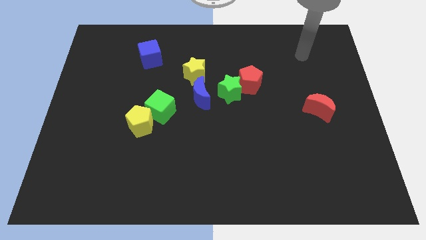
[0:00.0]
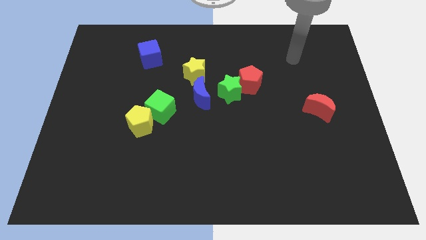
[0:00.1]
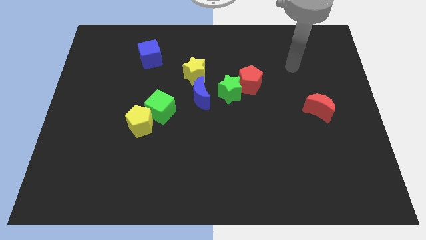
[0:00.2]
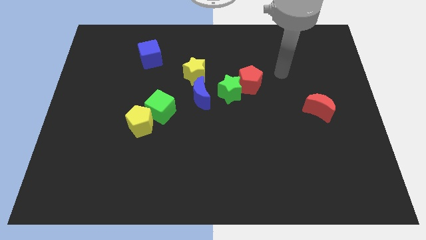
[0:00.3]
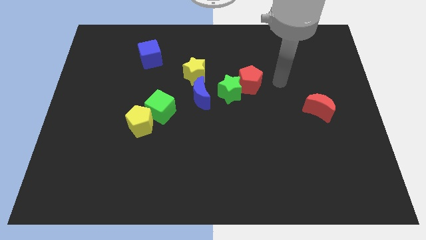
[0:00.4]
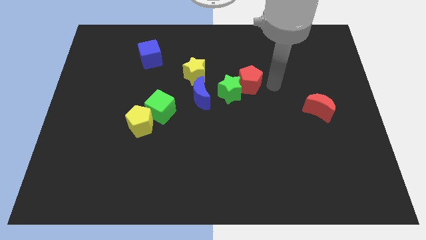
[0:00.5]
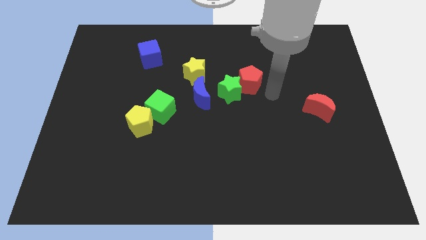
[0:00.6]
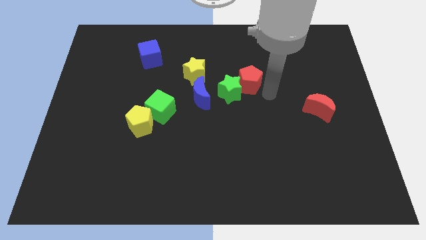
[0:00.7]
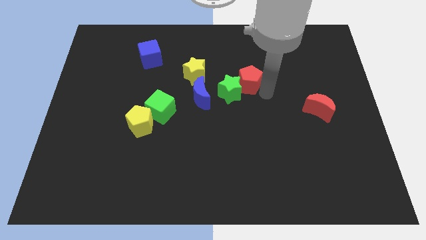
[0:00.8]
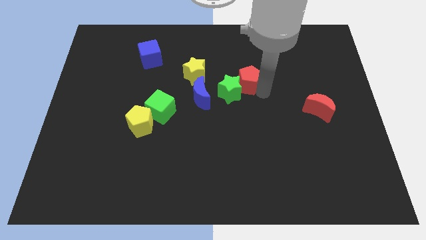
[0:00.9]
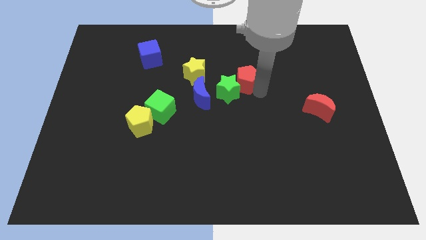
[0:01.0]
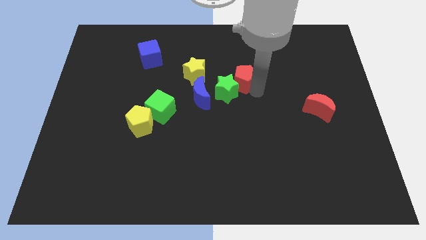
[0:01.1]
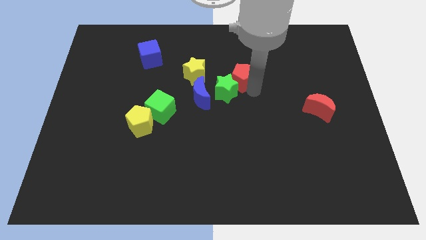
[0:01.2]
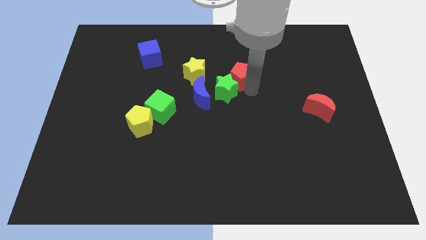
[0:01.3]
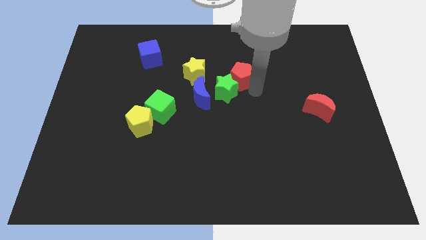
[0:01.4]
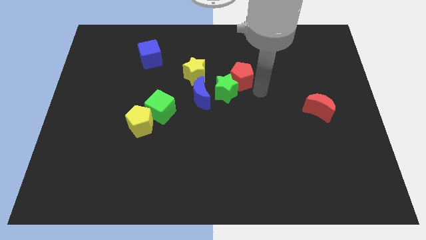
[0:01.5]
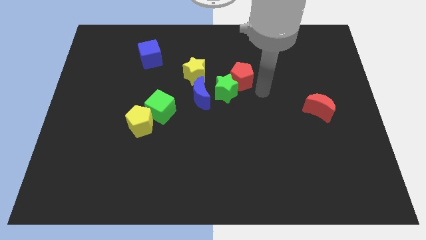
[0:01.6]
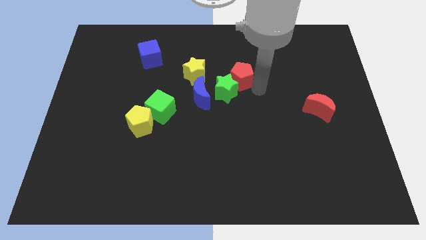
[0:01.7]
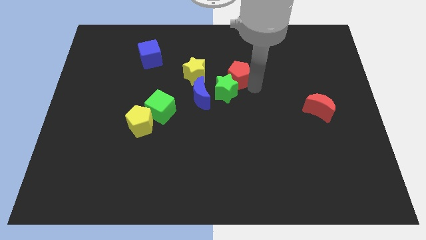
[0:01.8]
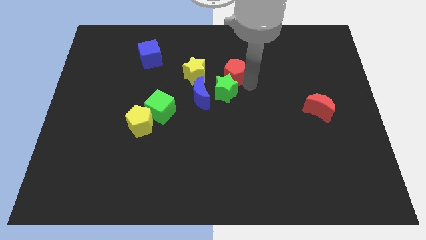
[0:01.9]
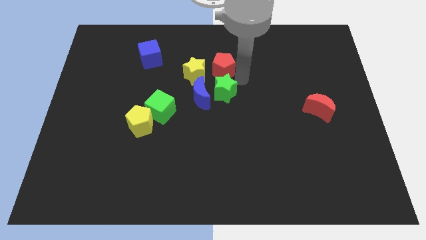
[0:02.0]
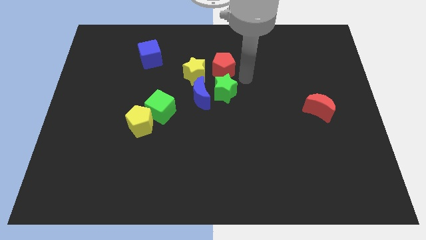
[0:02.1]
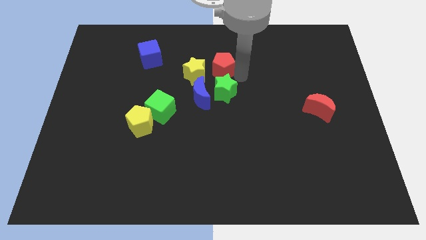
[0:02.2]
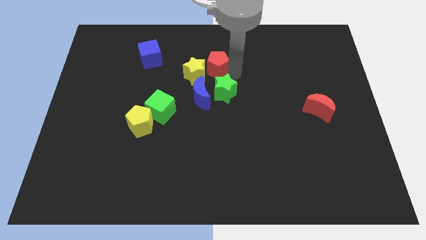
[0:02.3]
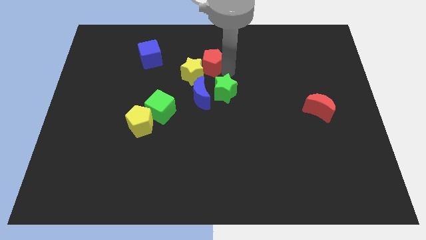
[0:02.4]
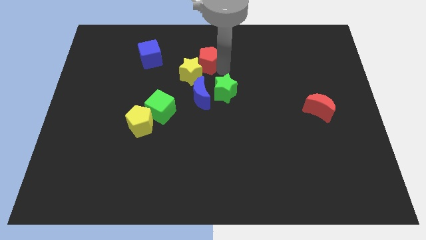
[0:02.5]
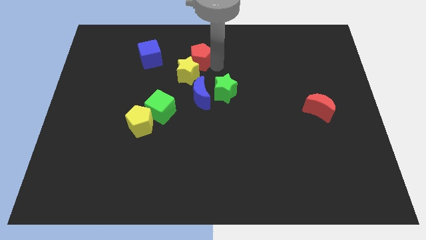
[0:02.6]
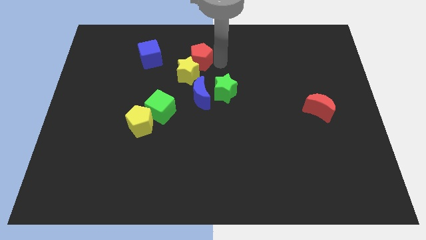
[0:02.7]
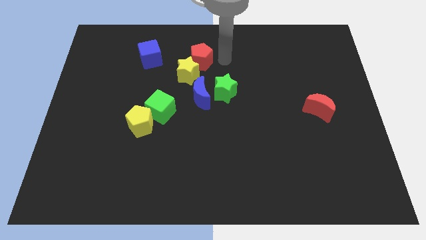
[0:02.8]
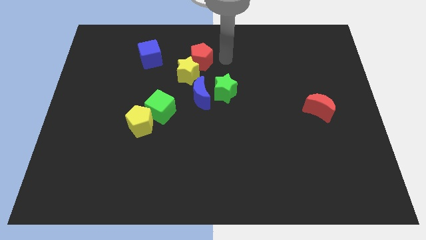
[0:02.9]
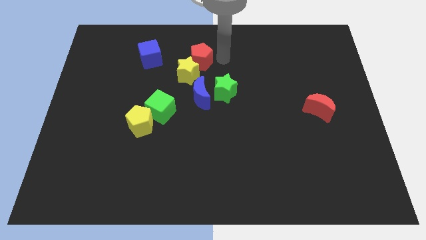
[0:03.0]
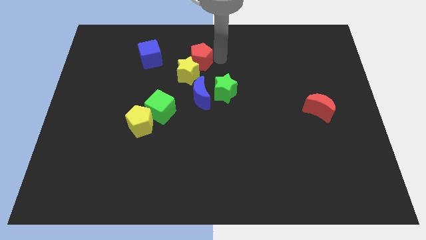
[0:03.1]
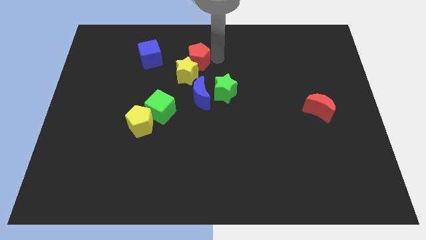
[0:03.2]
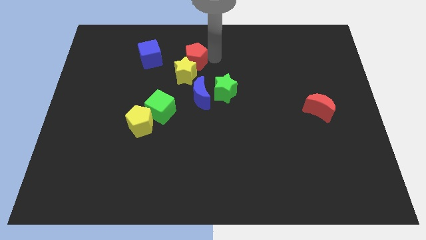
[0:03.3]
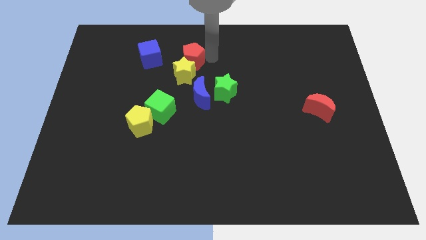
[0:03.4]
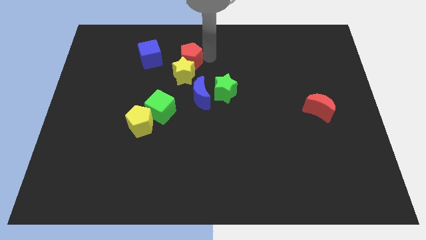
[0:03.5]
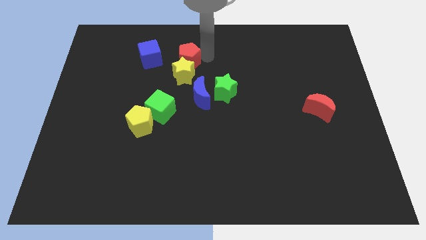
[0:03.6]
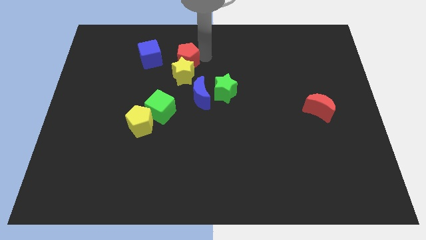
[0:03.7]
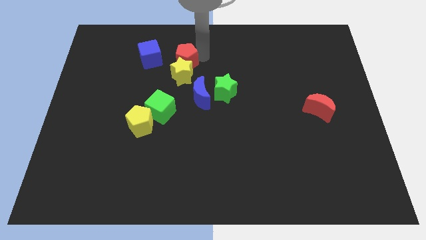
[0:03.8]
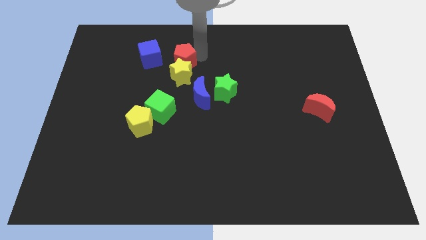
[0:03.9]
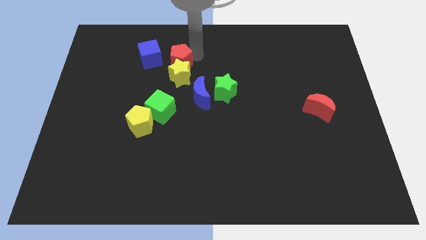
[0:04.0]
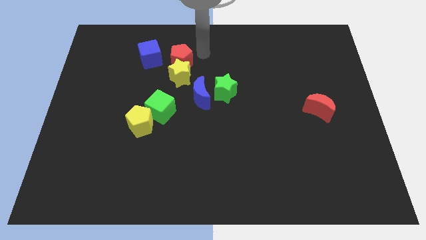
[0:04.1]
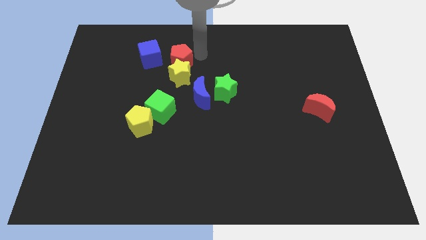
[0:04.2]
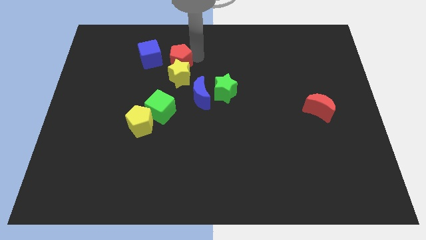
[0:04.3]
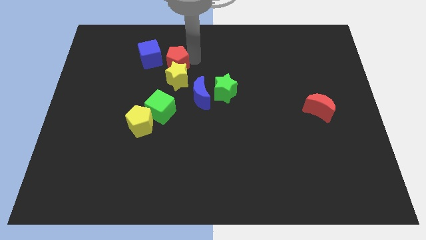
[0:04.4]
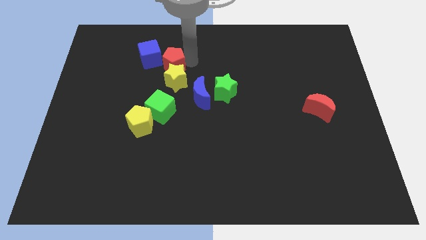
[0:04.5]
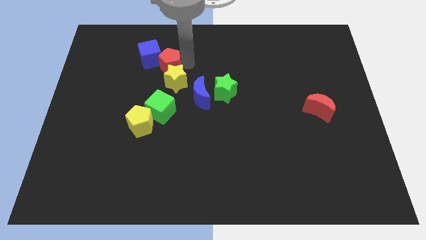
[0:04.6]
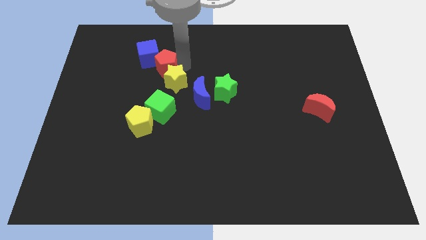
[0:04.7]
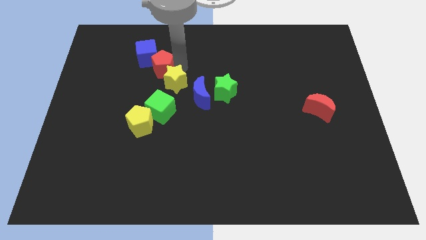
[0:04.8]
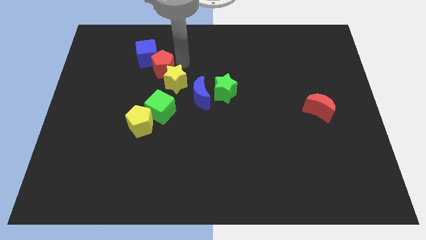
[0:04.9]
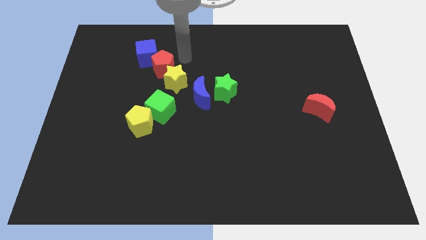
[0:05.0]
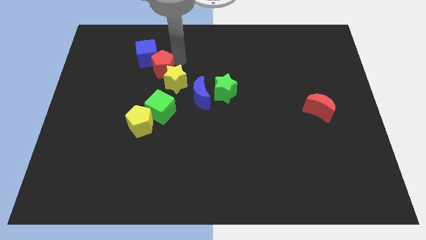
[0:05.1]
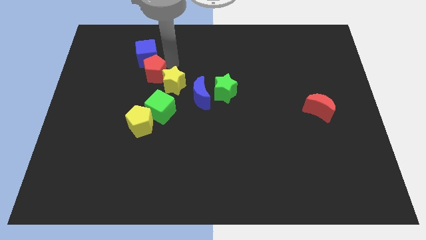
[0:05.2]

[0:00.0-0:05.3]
put the red pentagon left of the yellow star

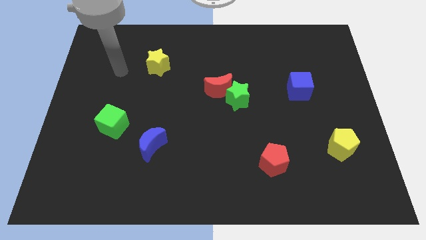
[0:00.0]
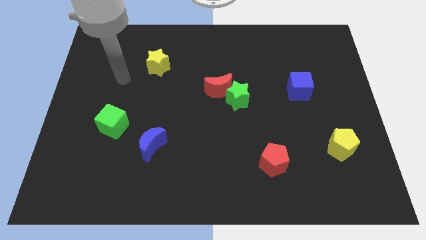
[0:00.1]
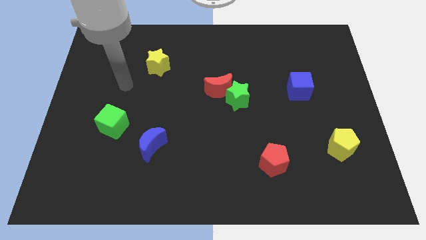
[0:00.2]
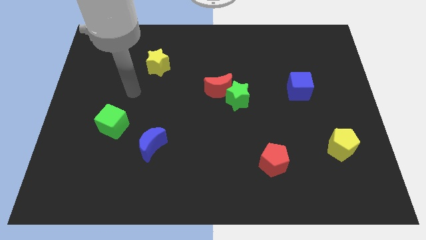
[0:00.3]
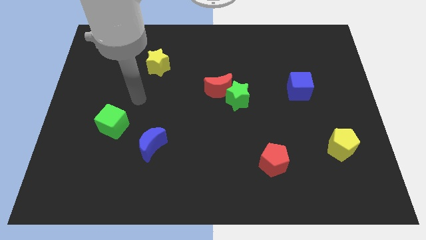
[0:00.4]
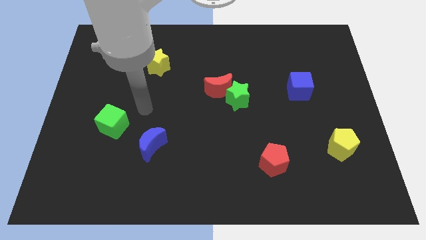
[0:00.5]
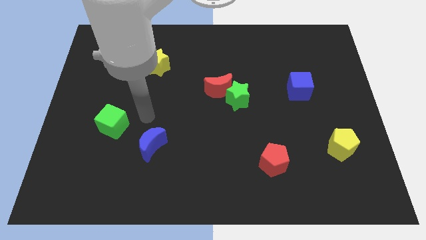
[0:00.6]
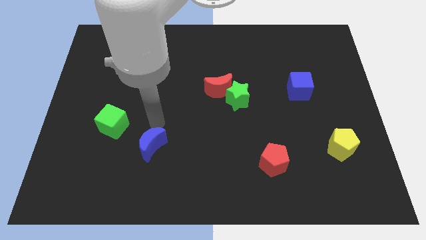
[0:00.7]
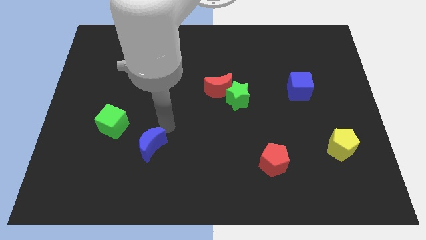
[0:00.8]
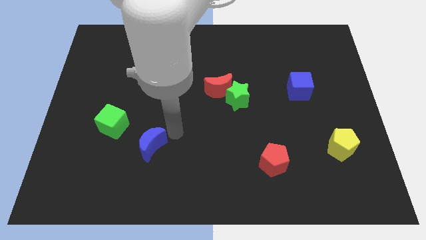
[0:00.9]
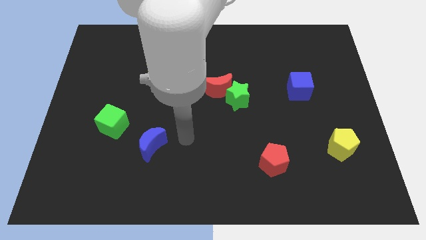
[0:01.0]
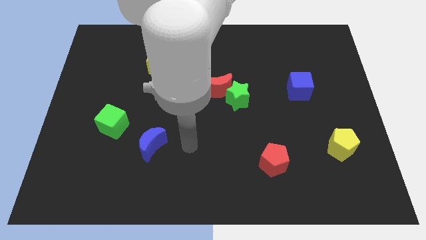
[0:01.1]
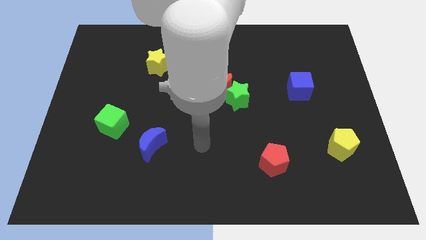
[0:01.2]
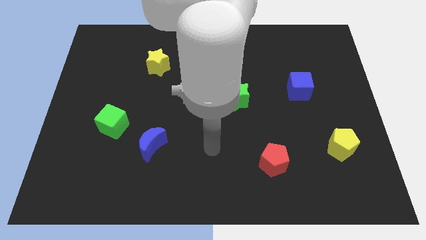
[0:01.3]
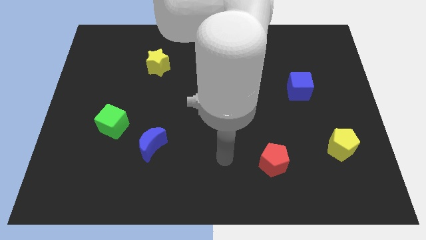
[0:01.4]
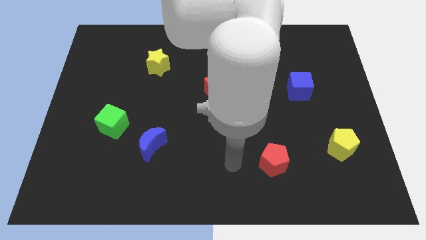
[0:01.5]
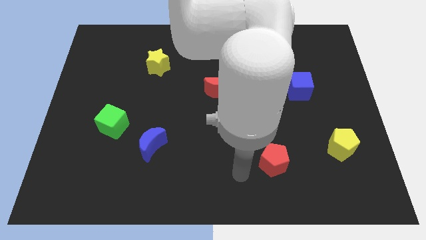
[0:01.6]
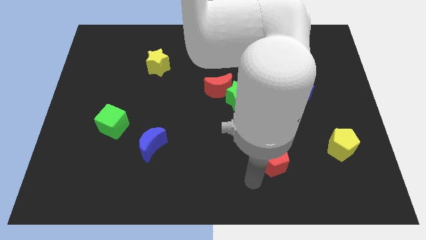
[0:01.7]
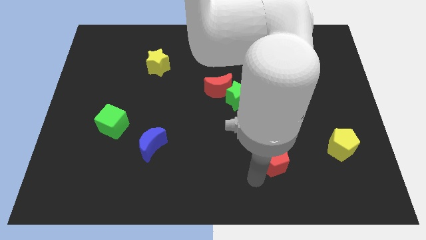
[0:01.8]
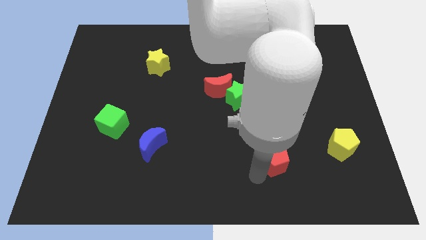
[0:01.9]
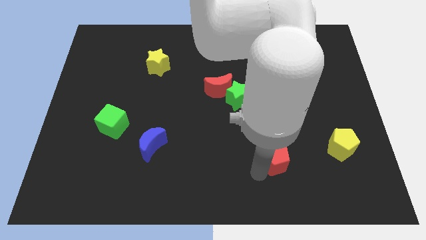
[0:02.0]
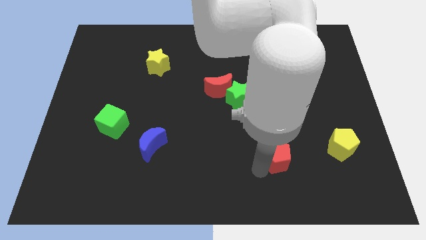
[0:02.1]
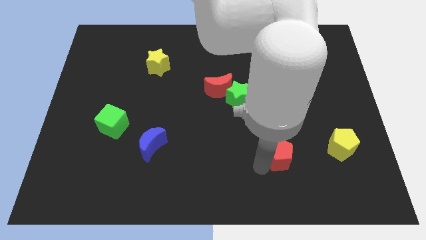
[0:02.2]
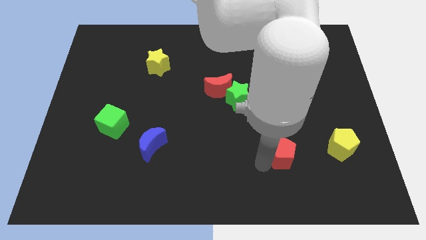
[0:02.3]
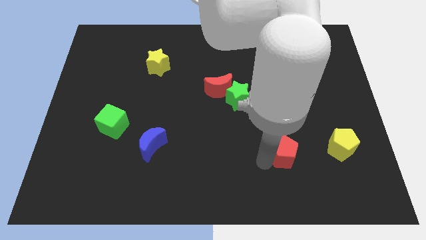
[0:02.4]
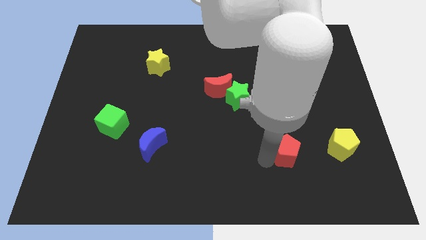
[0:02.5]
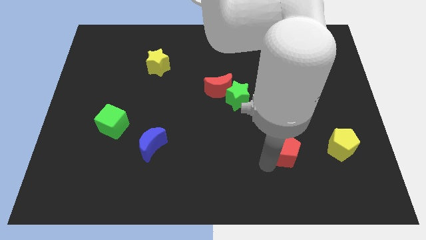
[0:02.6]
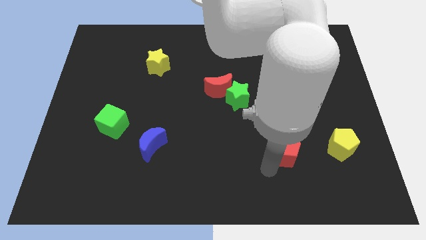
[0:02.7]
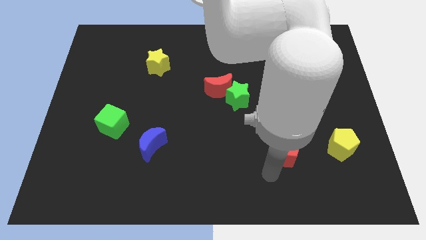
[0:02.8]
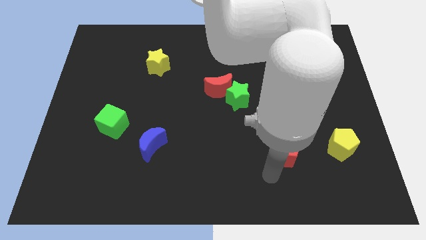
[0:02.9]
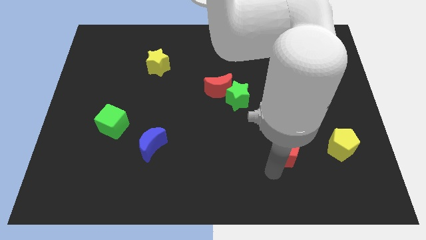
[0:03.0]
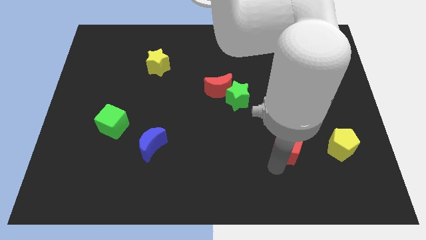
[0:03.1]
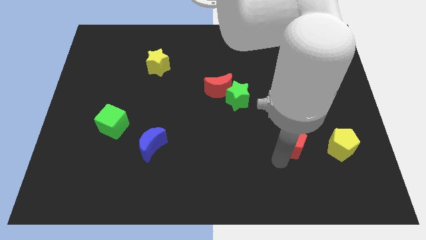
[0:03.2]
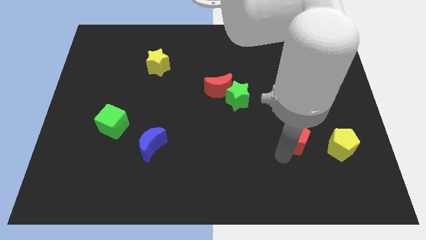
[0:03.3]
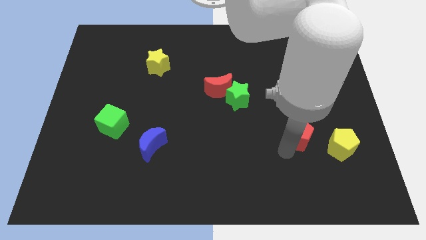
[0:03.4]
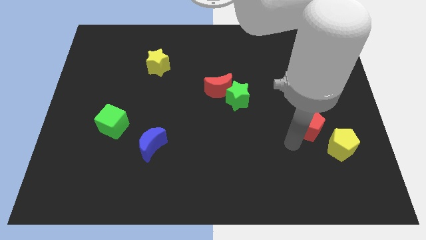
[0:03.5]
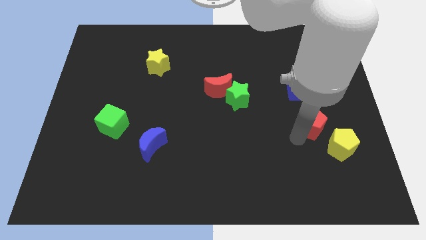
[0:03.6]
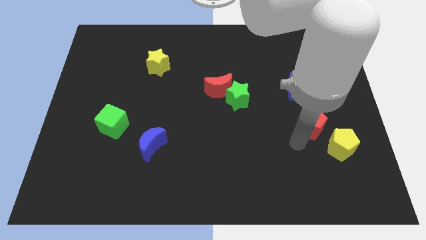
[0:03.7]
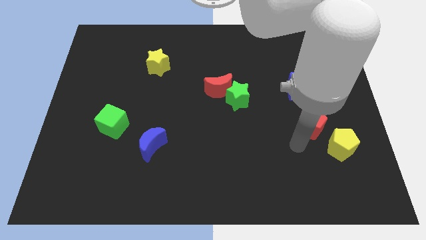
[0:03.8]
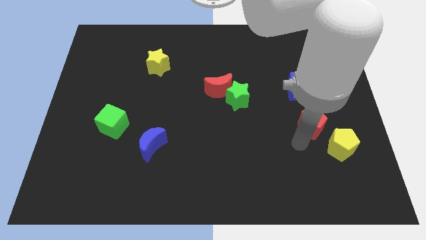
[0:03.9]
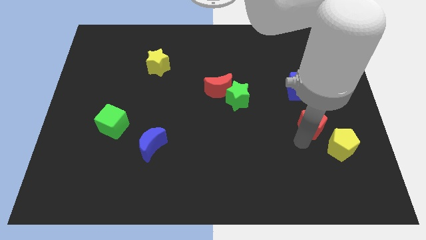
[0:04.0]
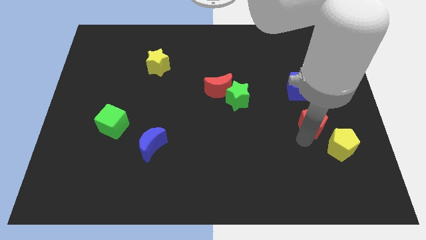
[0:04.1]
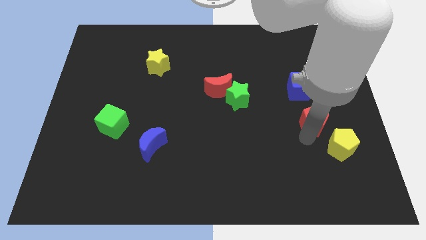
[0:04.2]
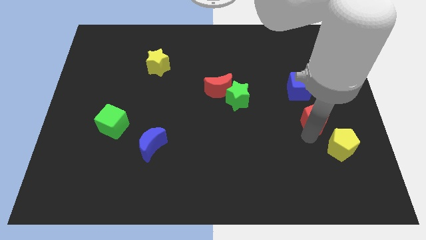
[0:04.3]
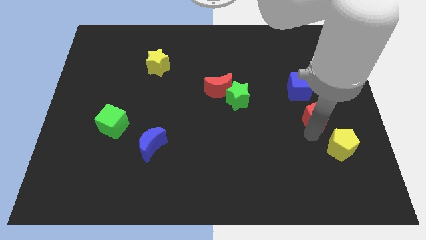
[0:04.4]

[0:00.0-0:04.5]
put the red pentagon to the bottom right side of the blue cube
